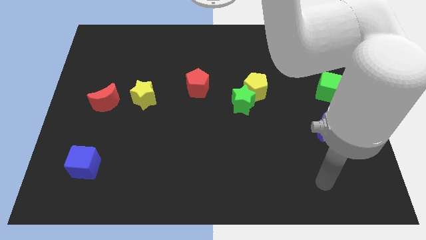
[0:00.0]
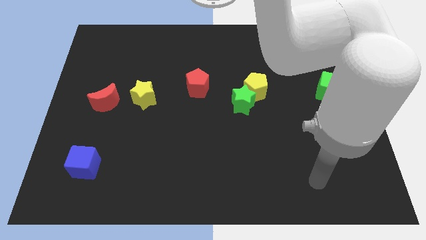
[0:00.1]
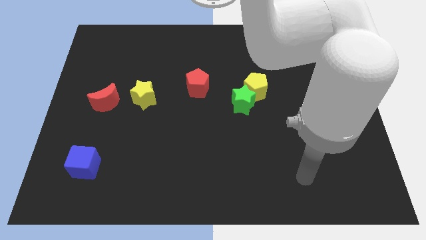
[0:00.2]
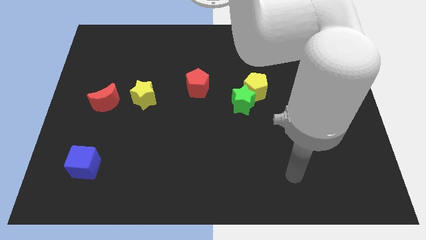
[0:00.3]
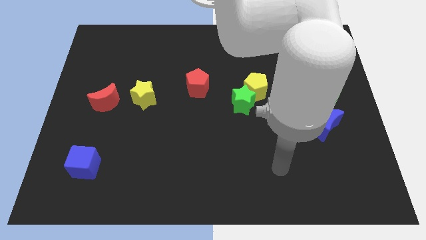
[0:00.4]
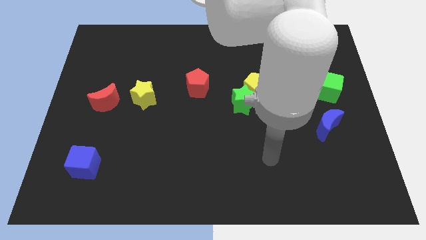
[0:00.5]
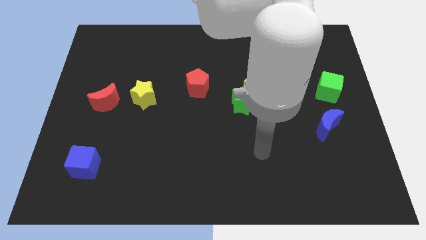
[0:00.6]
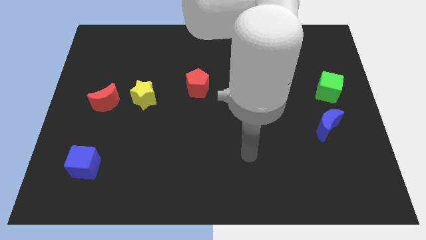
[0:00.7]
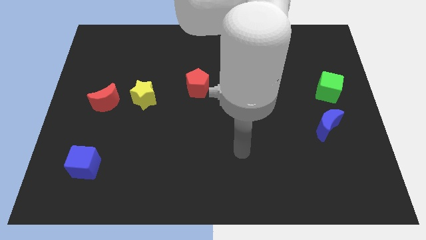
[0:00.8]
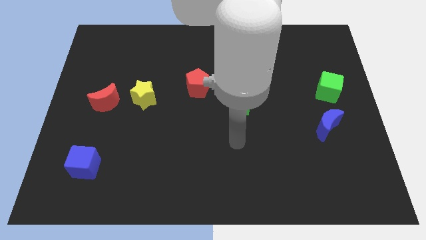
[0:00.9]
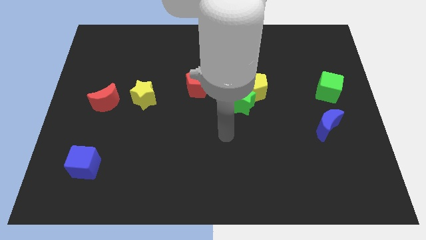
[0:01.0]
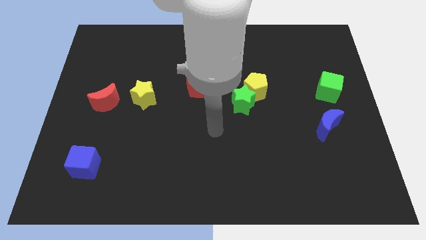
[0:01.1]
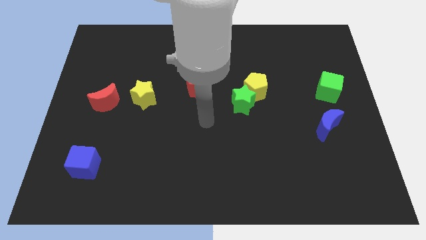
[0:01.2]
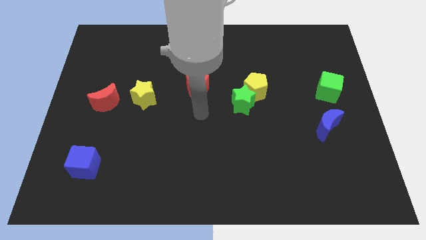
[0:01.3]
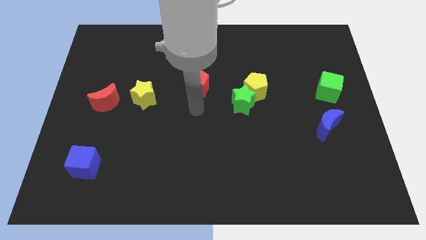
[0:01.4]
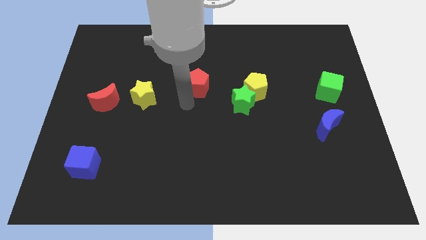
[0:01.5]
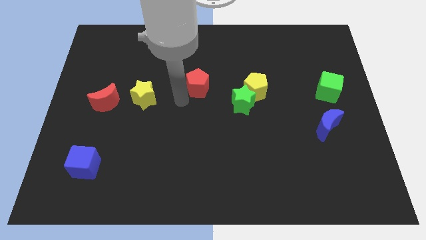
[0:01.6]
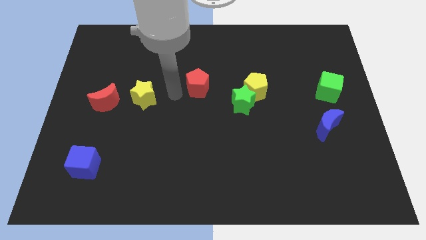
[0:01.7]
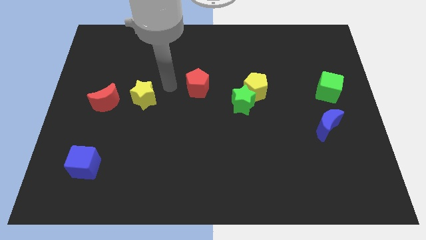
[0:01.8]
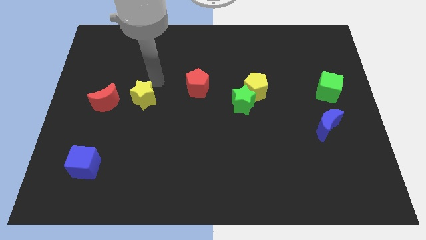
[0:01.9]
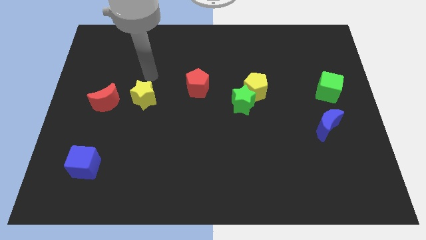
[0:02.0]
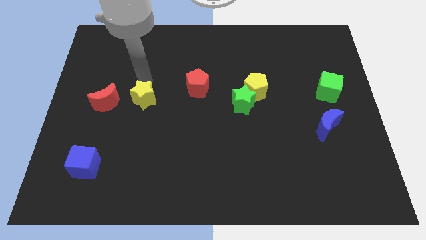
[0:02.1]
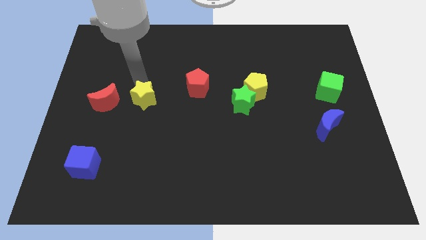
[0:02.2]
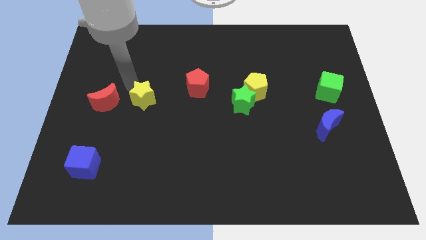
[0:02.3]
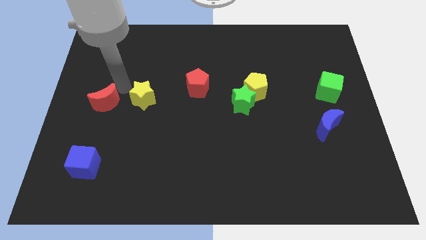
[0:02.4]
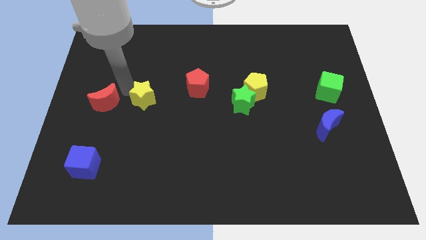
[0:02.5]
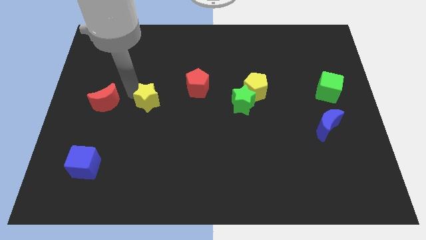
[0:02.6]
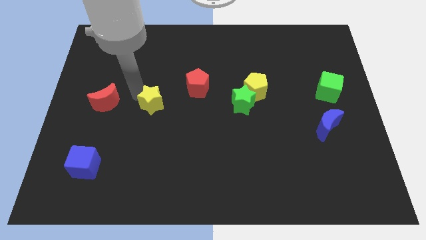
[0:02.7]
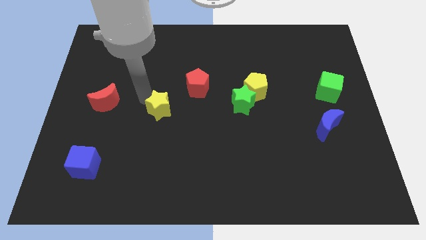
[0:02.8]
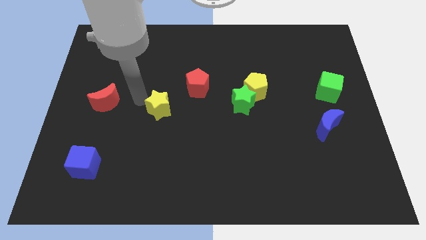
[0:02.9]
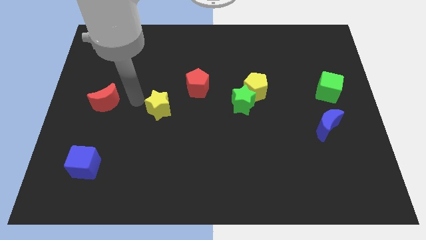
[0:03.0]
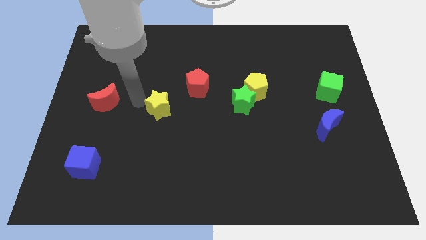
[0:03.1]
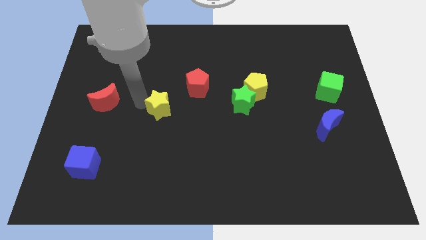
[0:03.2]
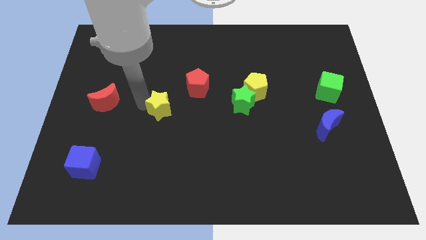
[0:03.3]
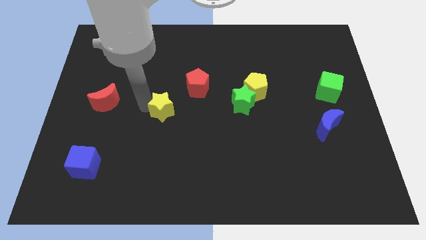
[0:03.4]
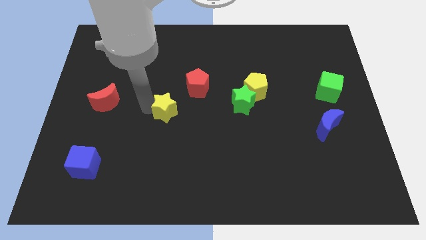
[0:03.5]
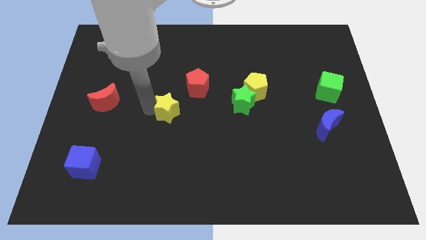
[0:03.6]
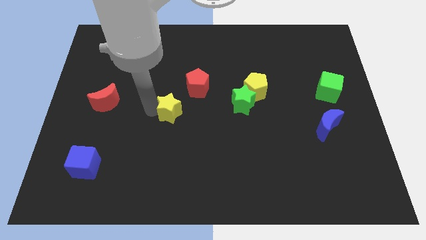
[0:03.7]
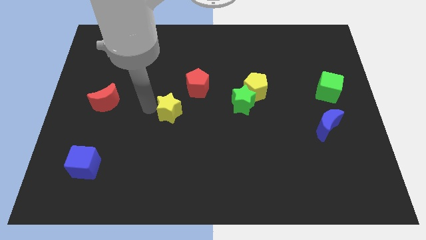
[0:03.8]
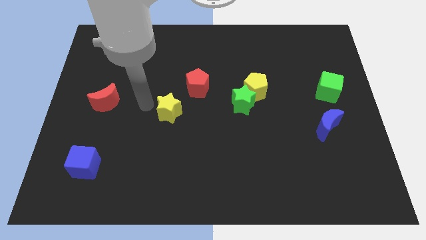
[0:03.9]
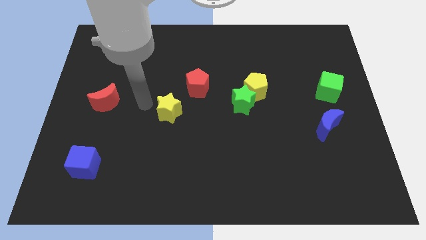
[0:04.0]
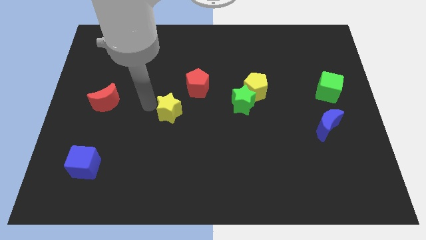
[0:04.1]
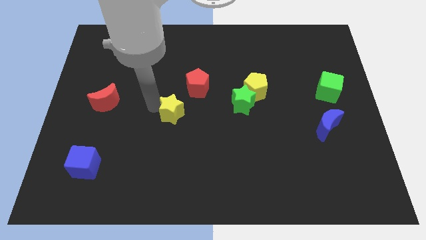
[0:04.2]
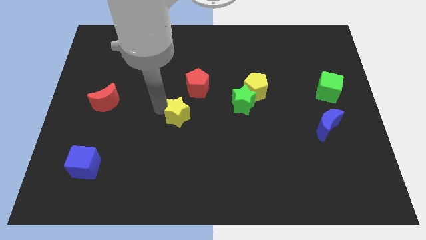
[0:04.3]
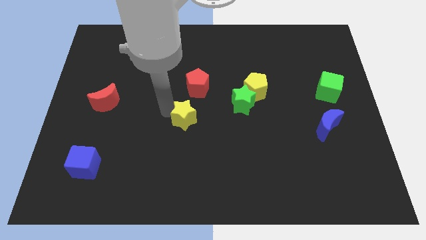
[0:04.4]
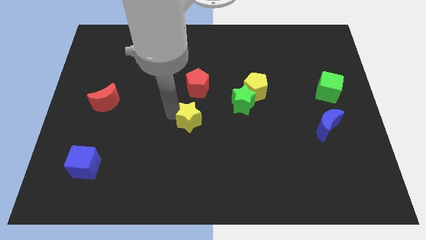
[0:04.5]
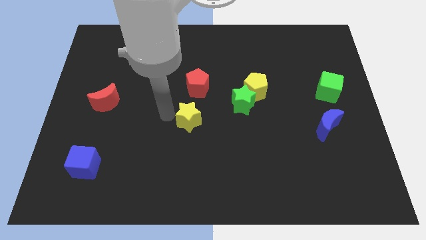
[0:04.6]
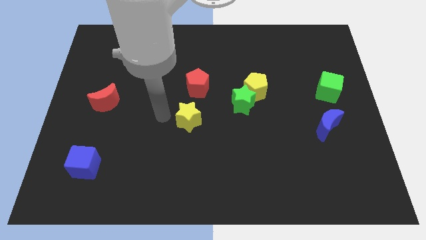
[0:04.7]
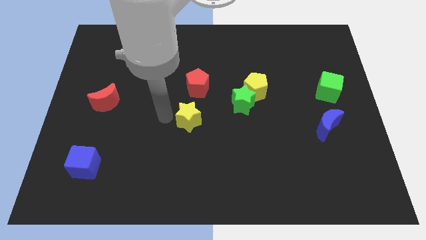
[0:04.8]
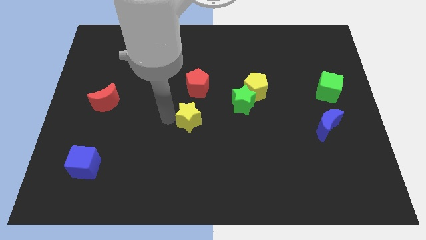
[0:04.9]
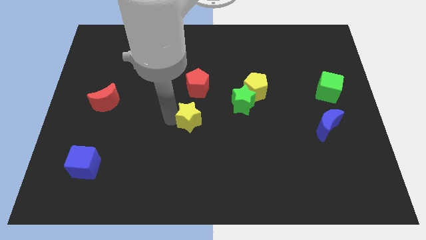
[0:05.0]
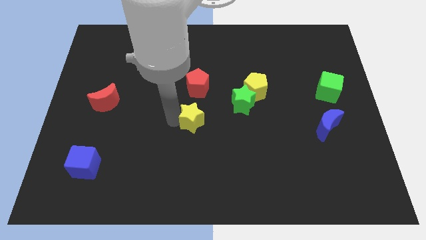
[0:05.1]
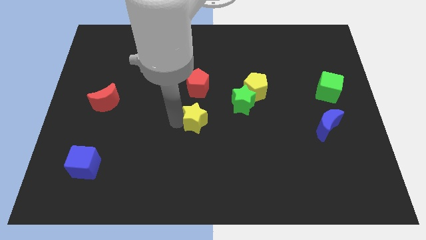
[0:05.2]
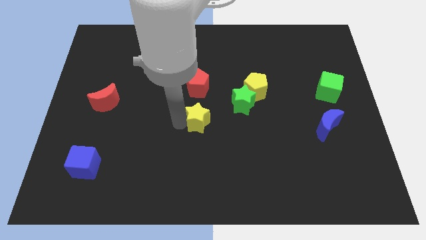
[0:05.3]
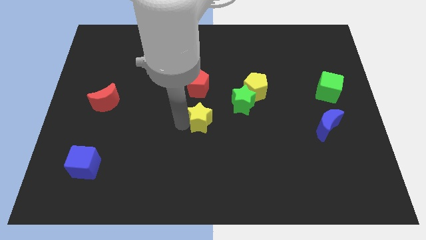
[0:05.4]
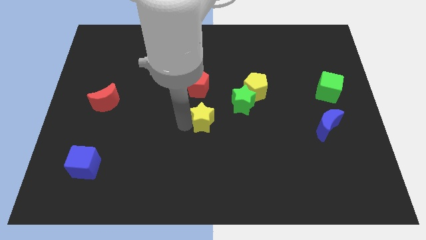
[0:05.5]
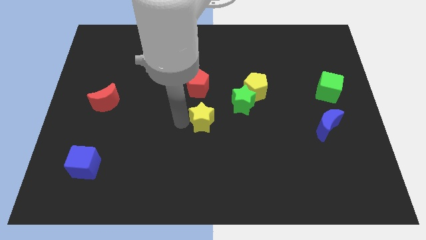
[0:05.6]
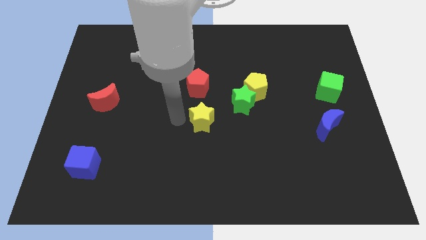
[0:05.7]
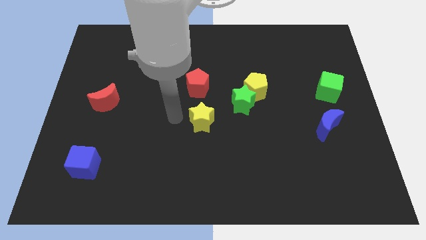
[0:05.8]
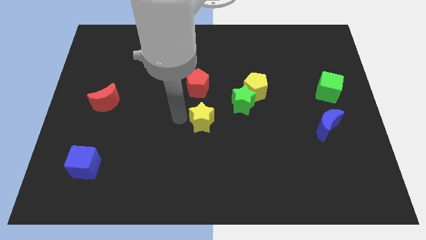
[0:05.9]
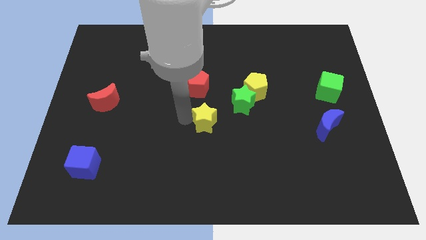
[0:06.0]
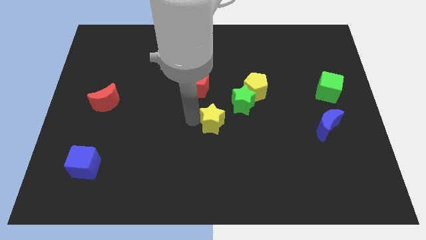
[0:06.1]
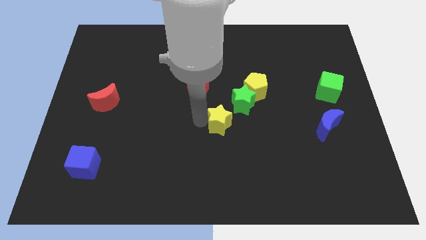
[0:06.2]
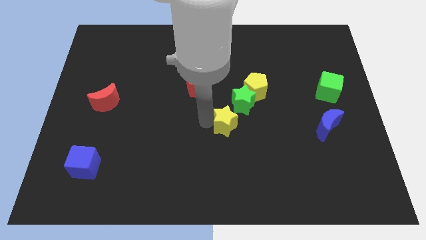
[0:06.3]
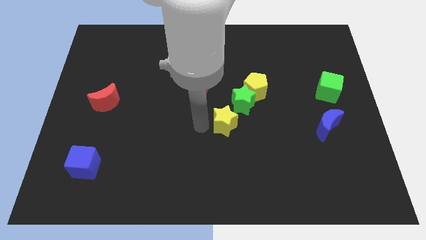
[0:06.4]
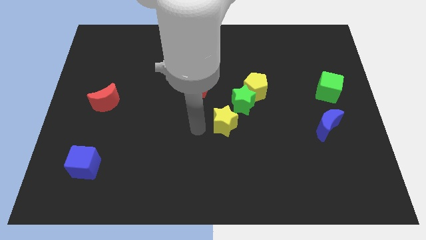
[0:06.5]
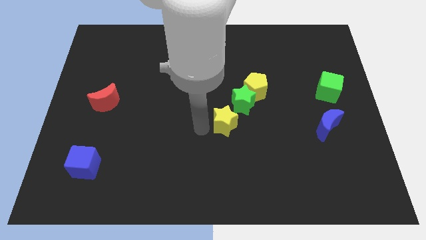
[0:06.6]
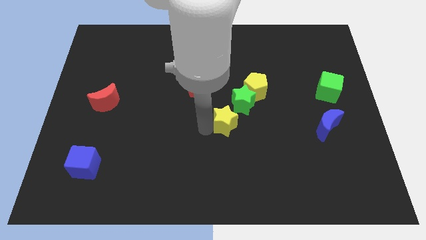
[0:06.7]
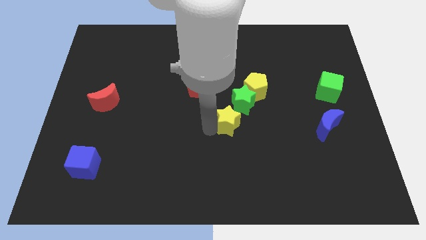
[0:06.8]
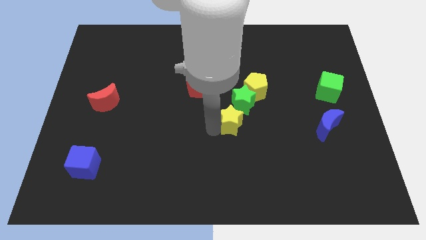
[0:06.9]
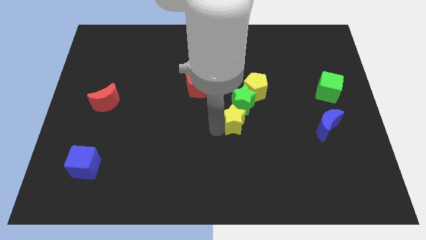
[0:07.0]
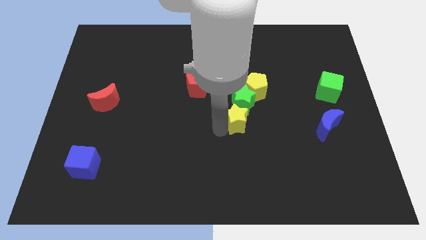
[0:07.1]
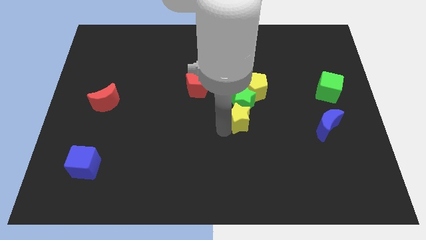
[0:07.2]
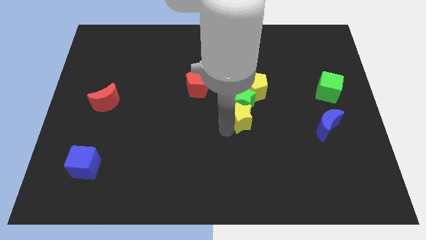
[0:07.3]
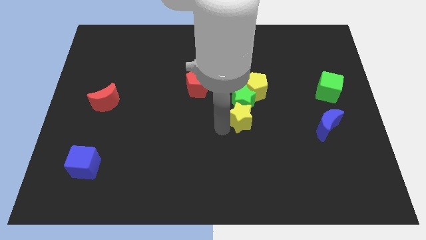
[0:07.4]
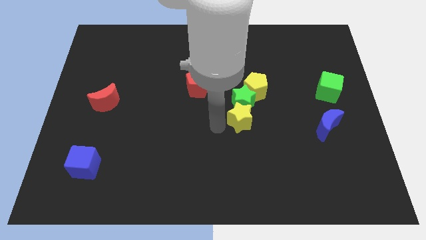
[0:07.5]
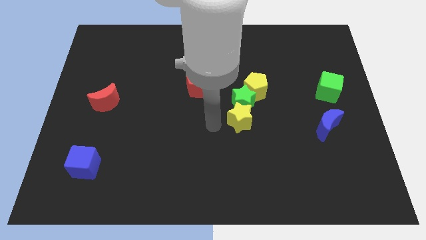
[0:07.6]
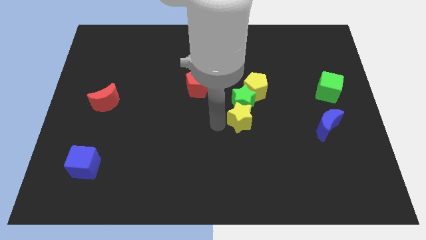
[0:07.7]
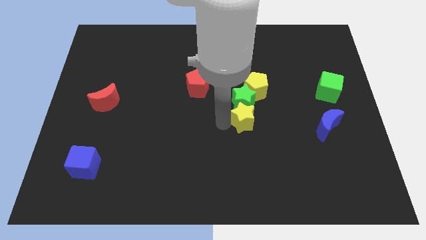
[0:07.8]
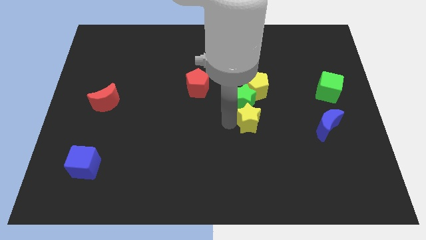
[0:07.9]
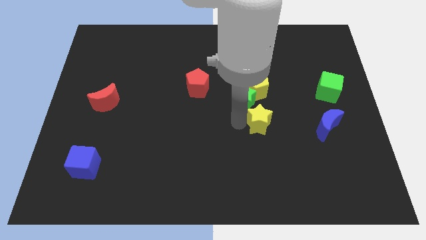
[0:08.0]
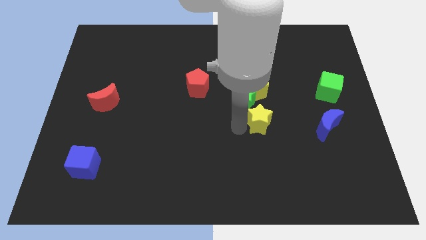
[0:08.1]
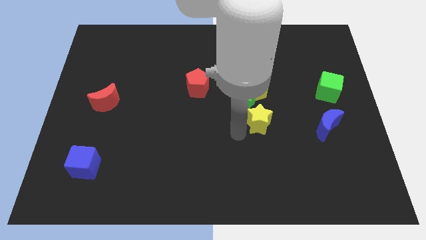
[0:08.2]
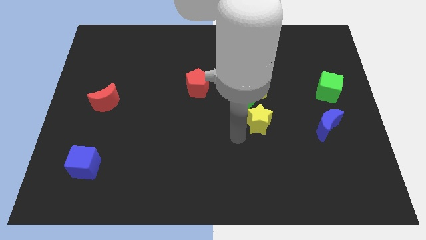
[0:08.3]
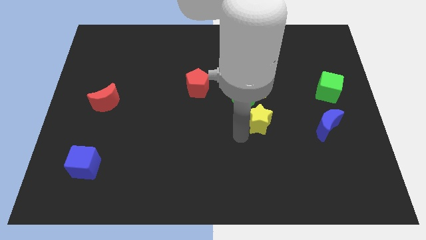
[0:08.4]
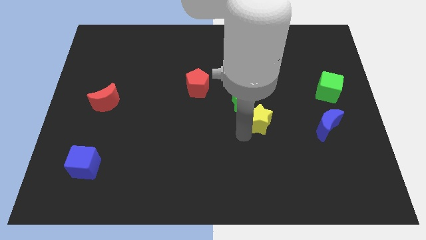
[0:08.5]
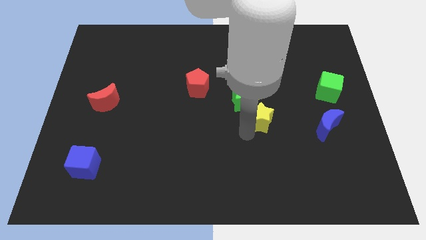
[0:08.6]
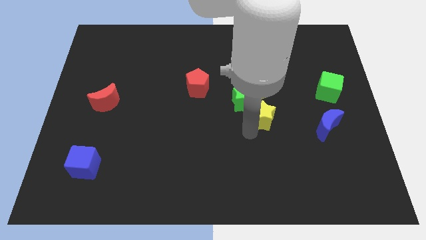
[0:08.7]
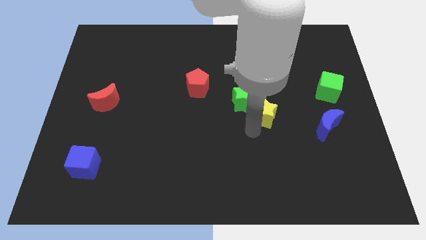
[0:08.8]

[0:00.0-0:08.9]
put the yellow star diagonally down and to the right of the yellow pentagon
